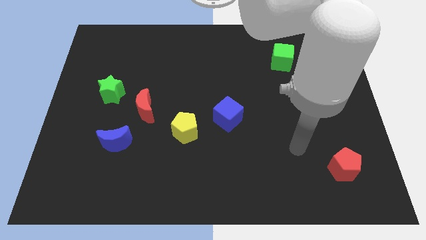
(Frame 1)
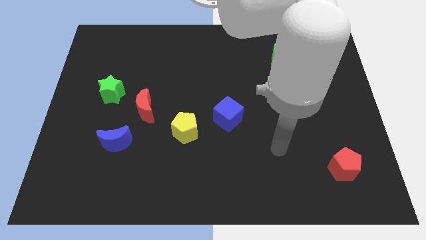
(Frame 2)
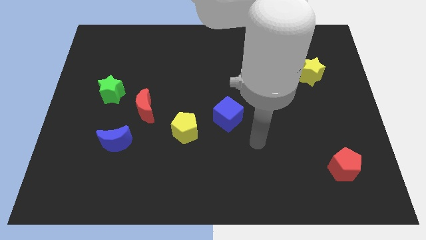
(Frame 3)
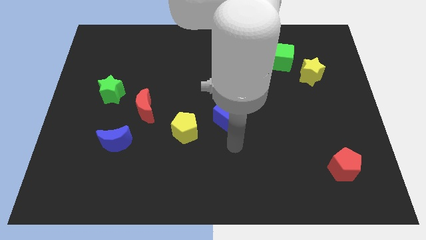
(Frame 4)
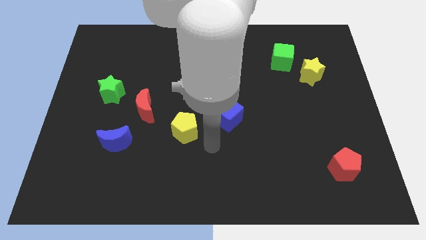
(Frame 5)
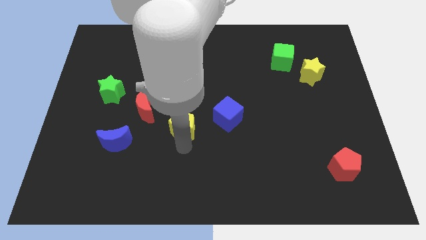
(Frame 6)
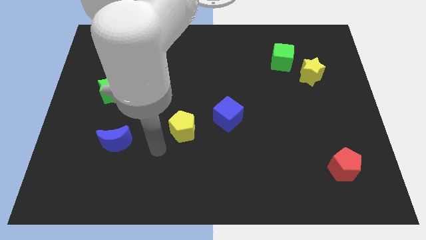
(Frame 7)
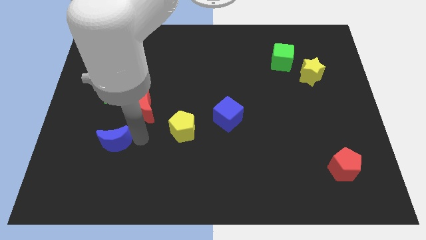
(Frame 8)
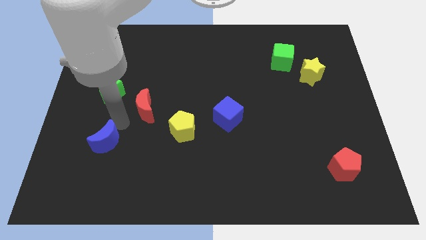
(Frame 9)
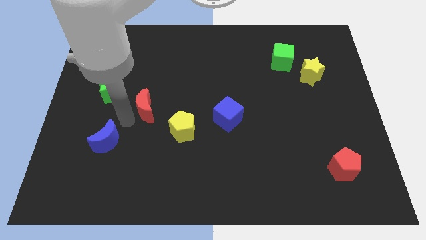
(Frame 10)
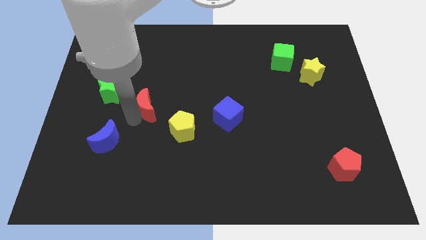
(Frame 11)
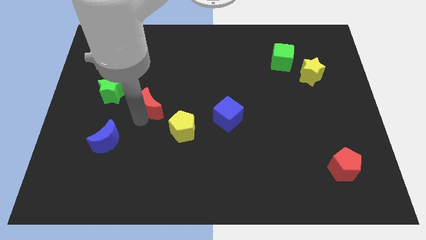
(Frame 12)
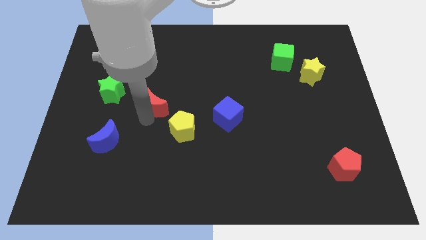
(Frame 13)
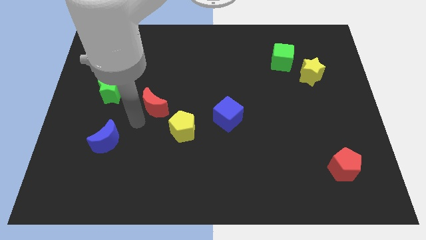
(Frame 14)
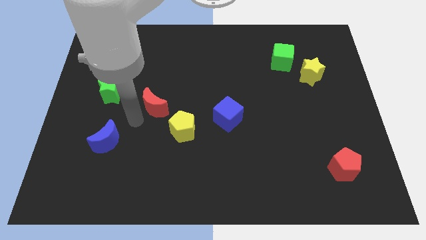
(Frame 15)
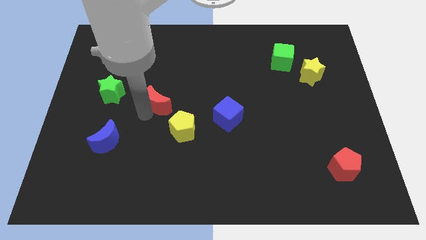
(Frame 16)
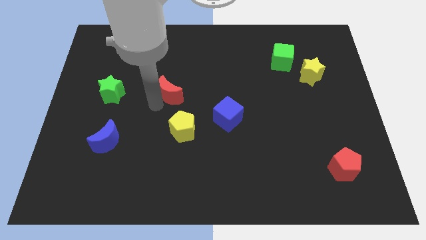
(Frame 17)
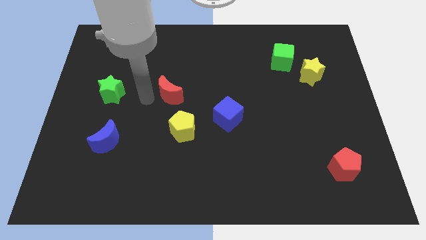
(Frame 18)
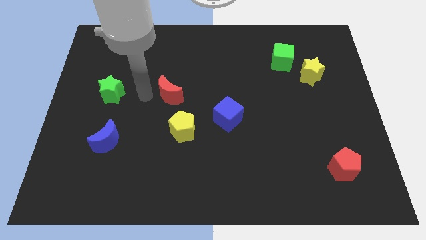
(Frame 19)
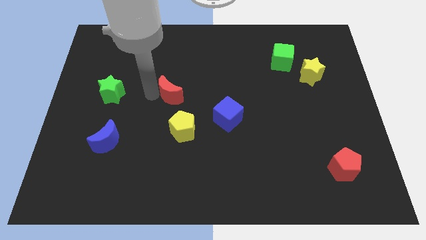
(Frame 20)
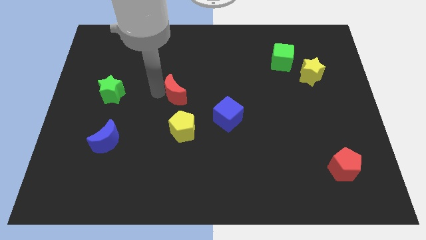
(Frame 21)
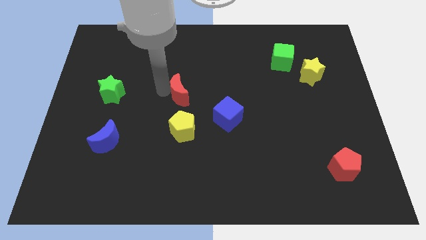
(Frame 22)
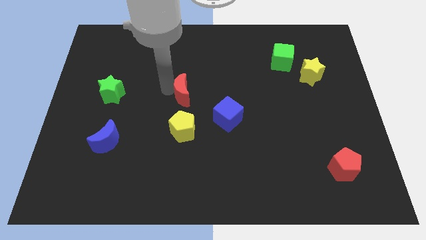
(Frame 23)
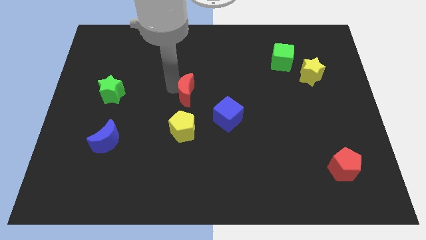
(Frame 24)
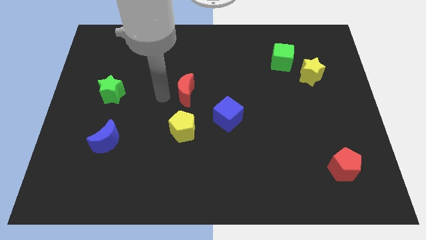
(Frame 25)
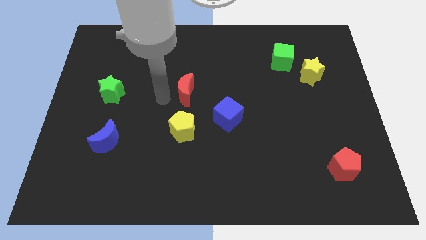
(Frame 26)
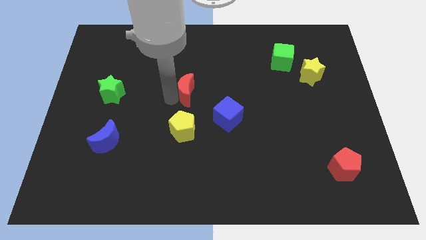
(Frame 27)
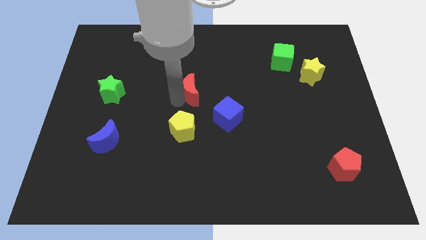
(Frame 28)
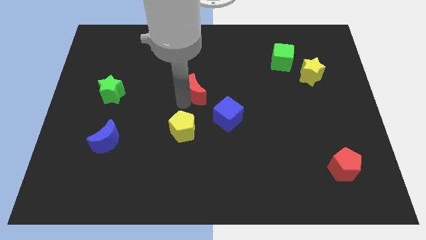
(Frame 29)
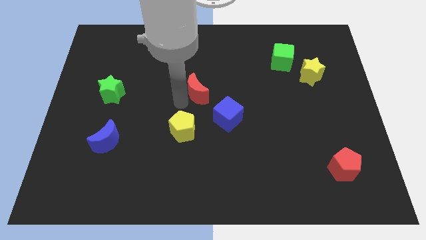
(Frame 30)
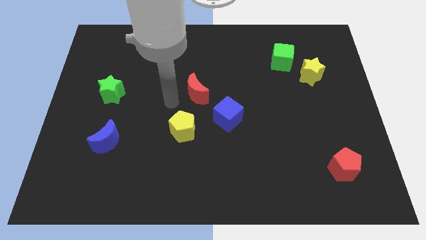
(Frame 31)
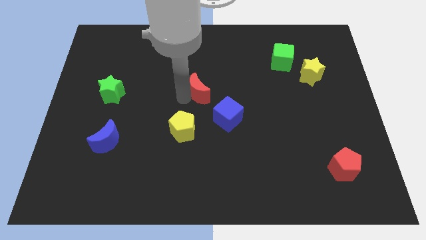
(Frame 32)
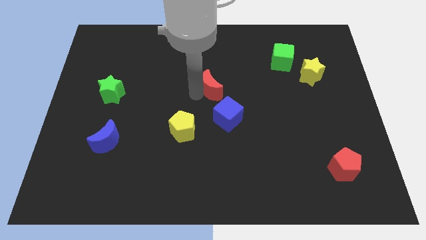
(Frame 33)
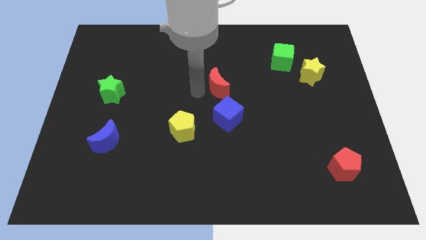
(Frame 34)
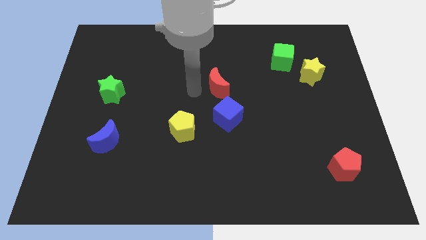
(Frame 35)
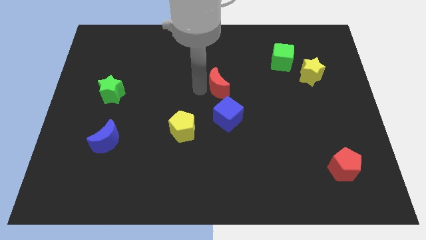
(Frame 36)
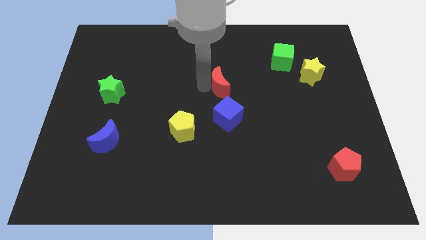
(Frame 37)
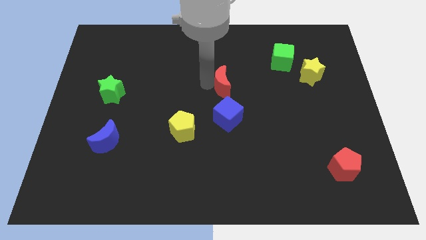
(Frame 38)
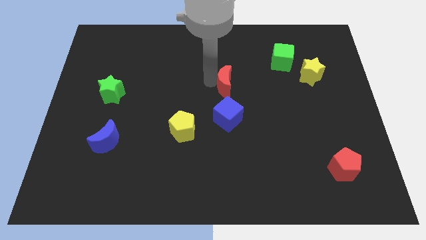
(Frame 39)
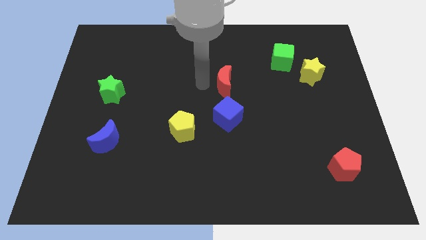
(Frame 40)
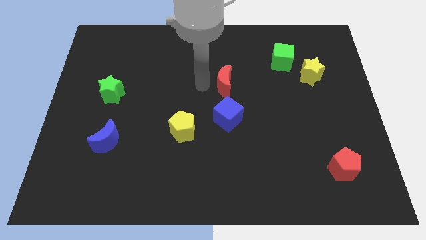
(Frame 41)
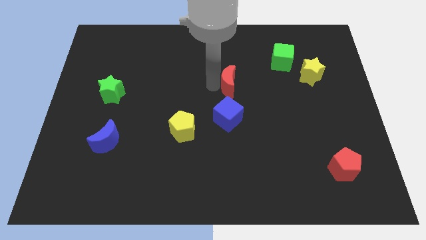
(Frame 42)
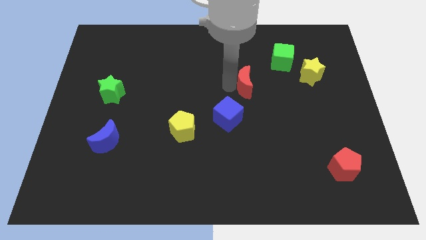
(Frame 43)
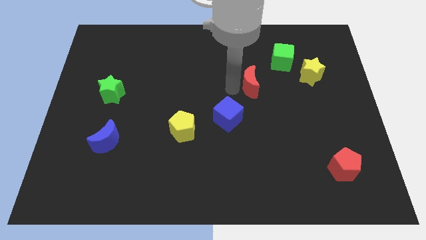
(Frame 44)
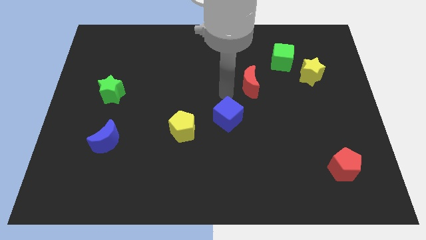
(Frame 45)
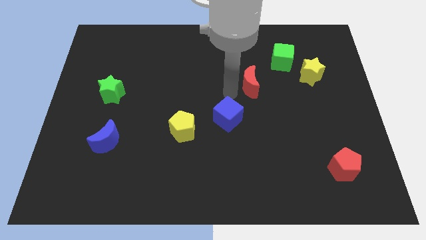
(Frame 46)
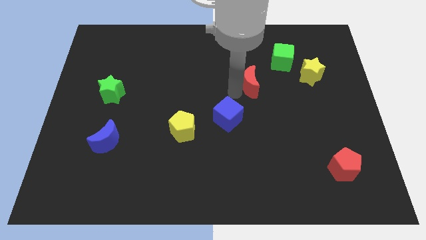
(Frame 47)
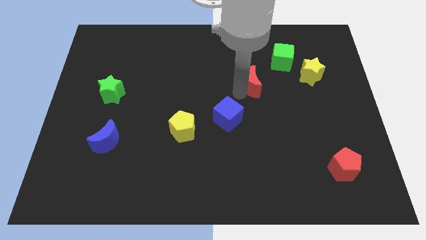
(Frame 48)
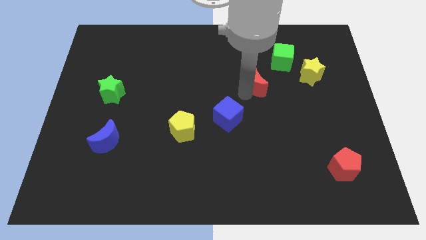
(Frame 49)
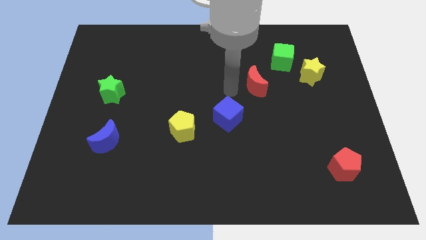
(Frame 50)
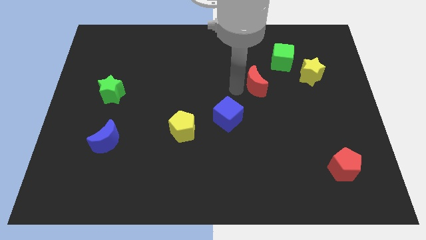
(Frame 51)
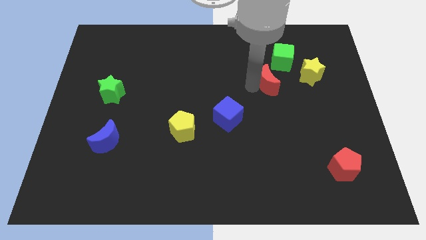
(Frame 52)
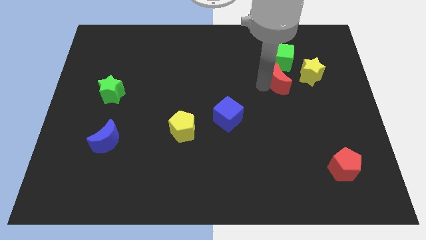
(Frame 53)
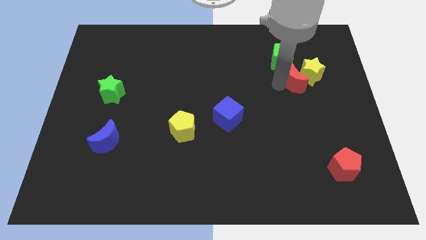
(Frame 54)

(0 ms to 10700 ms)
move the red moon close to the yellow star

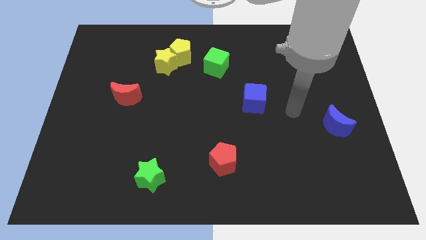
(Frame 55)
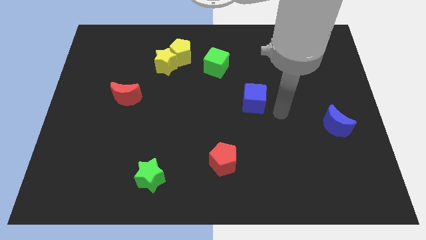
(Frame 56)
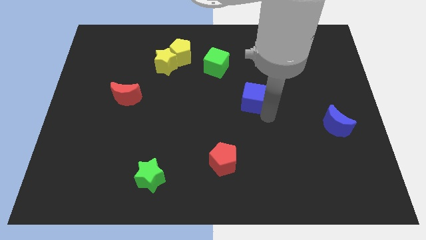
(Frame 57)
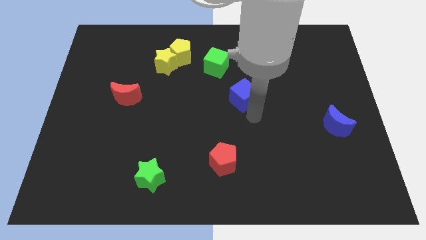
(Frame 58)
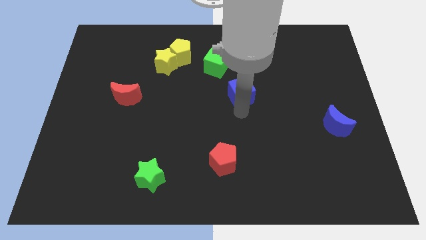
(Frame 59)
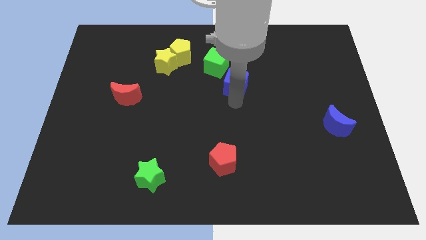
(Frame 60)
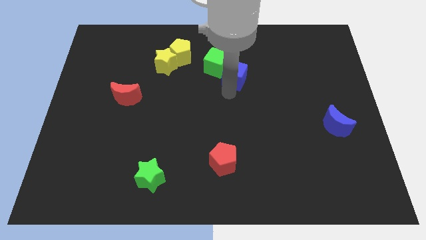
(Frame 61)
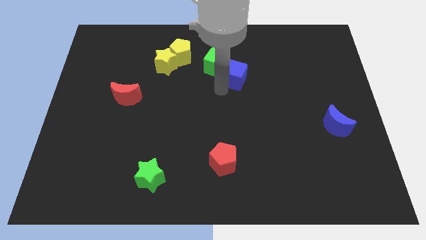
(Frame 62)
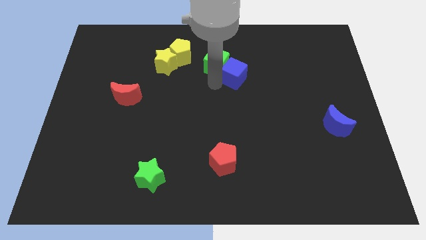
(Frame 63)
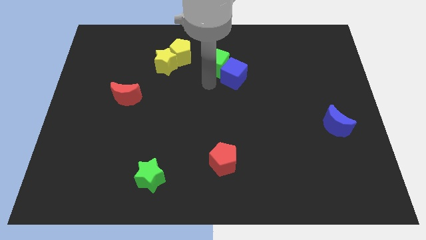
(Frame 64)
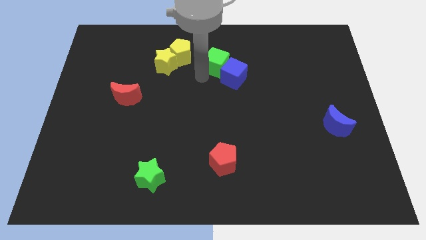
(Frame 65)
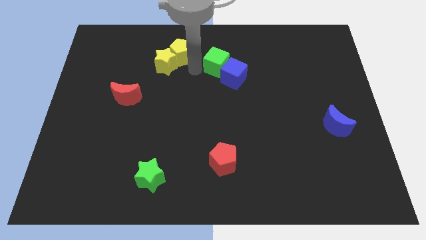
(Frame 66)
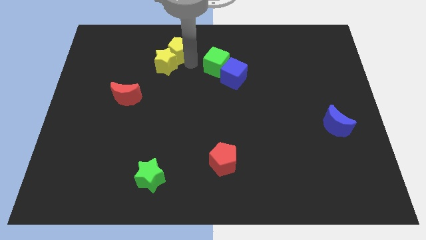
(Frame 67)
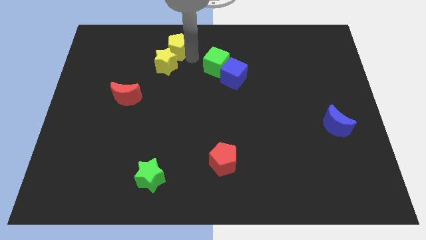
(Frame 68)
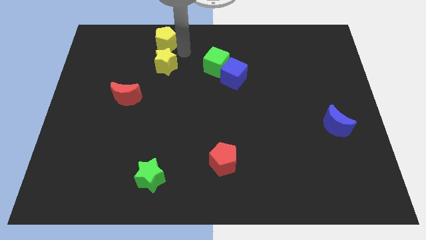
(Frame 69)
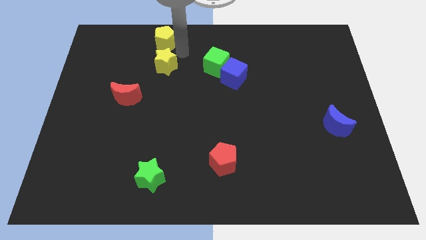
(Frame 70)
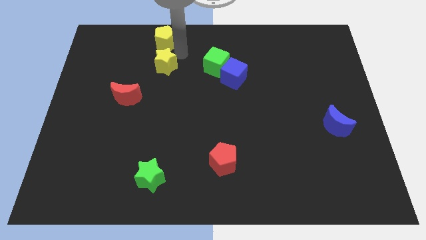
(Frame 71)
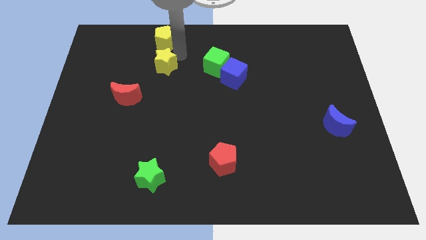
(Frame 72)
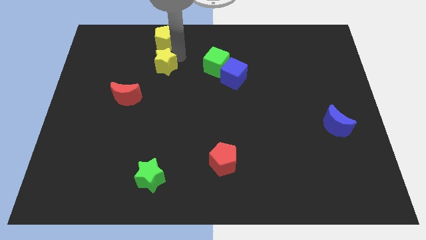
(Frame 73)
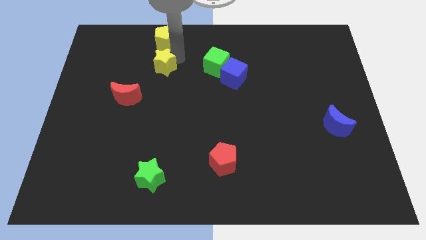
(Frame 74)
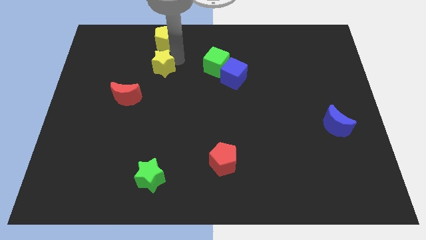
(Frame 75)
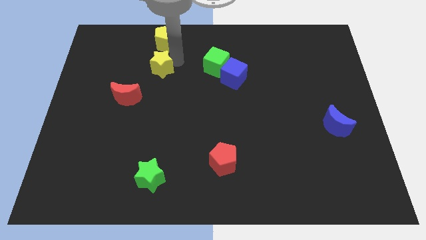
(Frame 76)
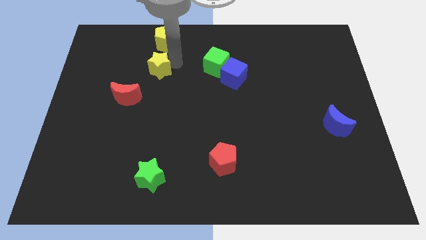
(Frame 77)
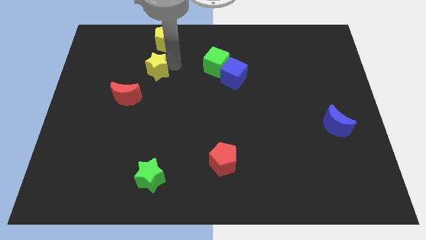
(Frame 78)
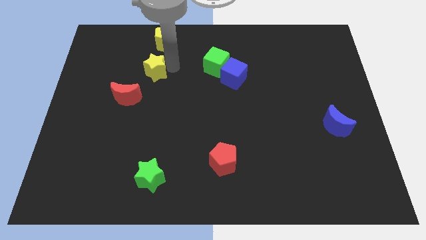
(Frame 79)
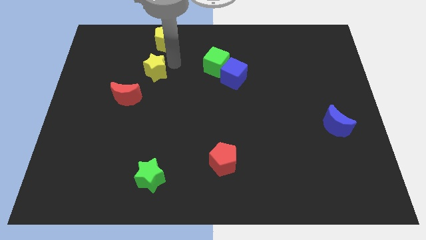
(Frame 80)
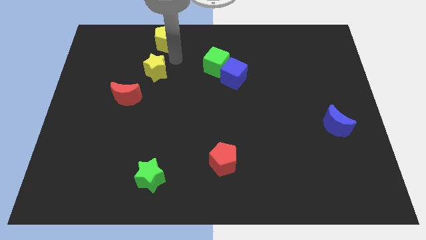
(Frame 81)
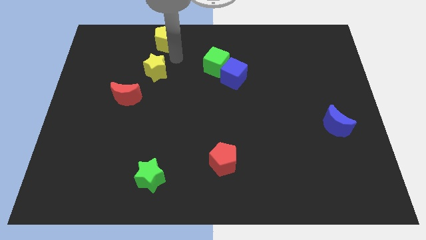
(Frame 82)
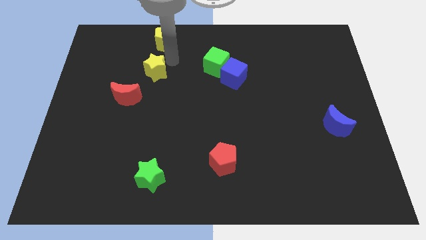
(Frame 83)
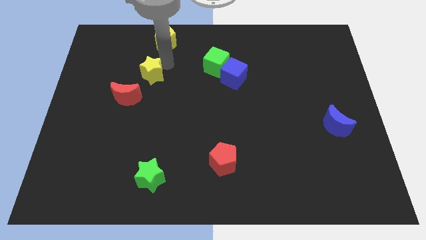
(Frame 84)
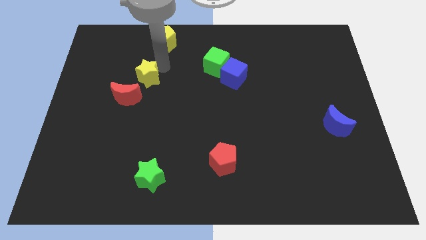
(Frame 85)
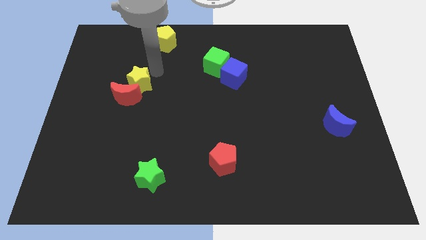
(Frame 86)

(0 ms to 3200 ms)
push the yellow star towards the red moon
